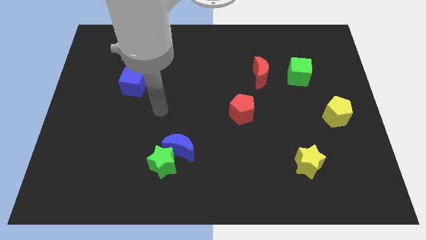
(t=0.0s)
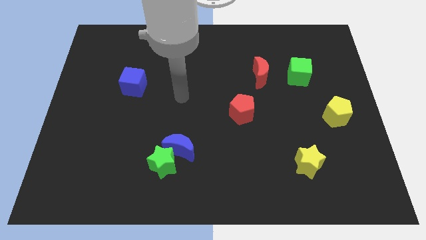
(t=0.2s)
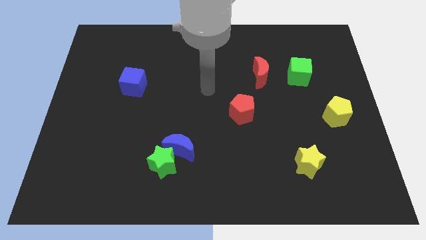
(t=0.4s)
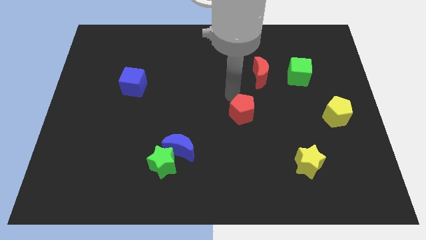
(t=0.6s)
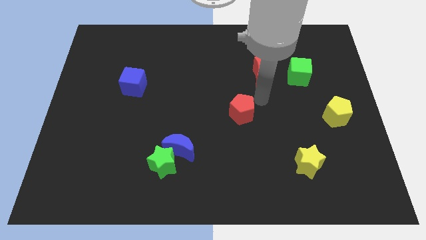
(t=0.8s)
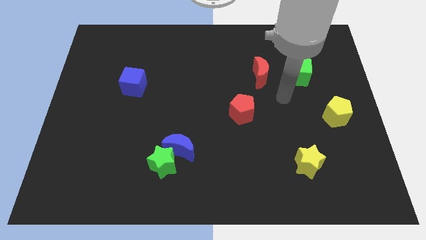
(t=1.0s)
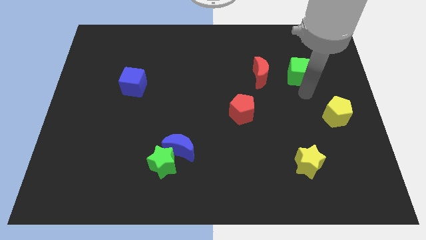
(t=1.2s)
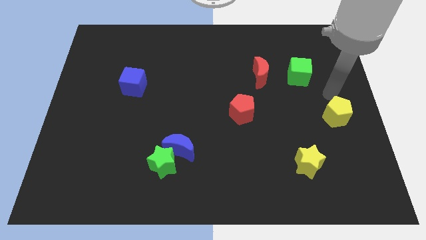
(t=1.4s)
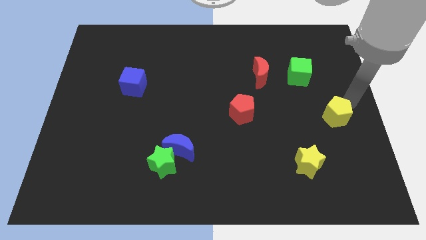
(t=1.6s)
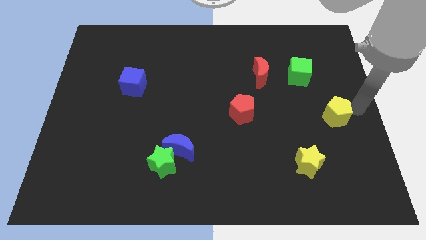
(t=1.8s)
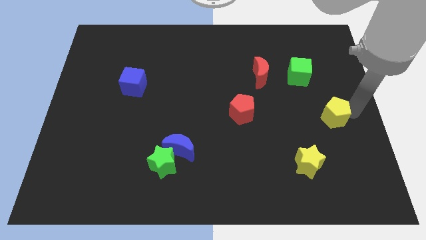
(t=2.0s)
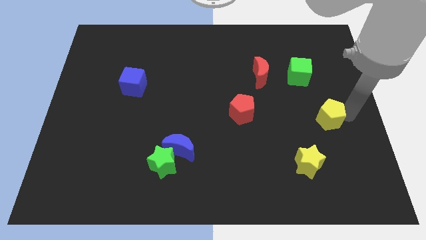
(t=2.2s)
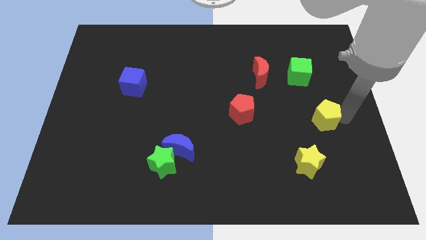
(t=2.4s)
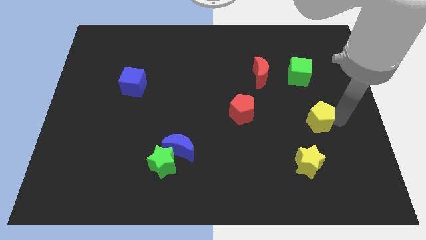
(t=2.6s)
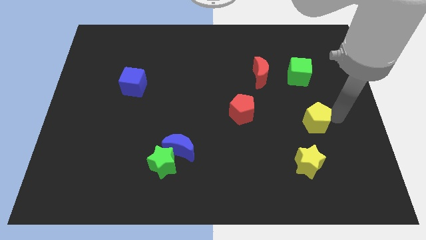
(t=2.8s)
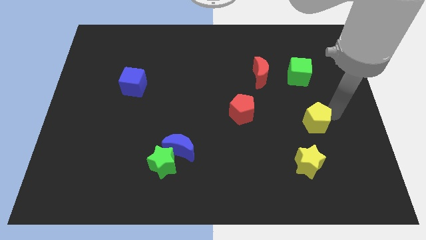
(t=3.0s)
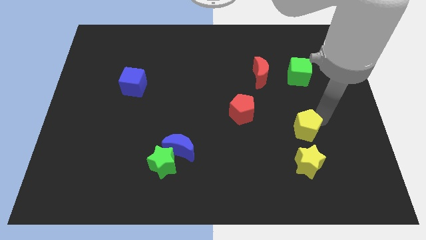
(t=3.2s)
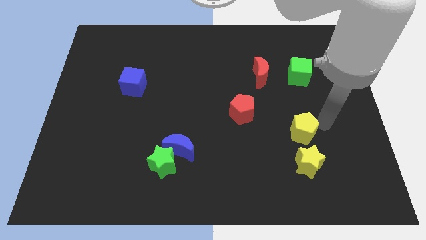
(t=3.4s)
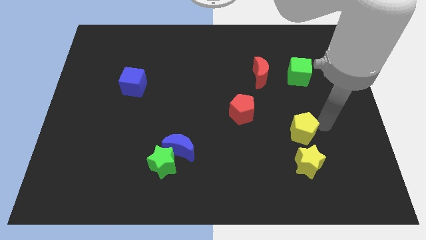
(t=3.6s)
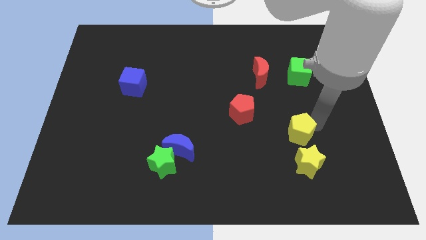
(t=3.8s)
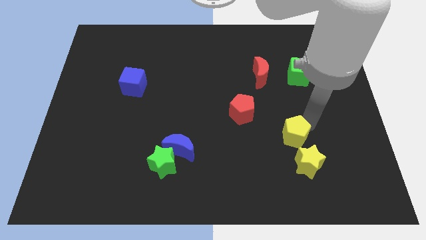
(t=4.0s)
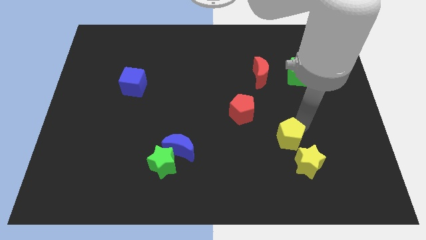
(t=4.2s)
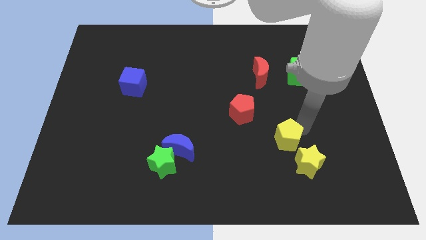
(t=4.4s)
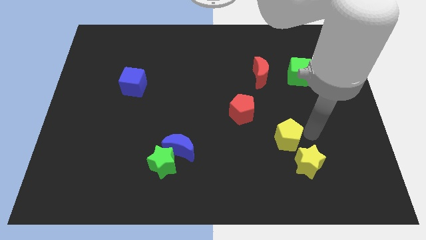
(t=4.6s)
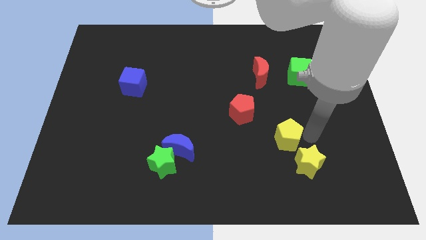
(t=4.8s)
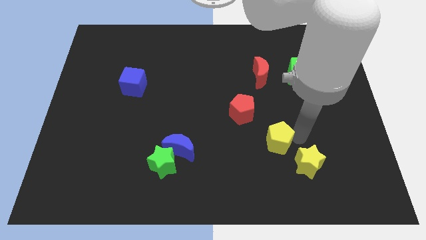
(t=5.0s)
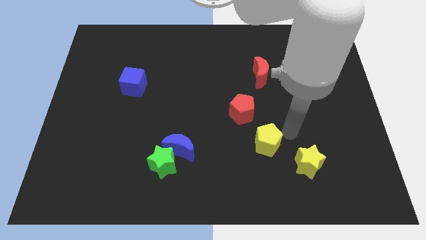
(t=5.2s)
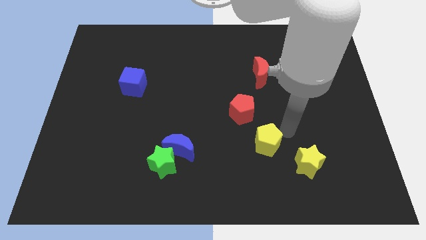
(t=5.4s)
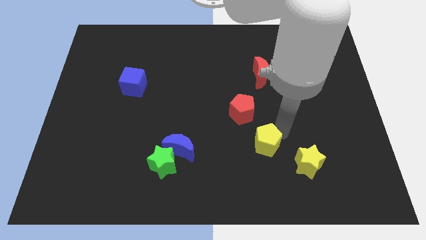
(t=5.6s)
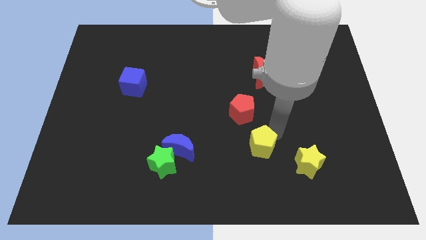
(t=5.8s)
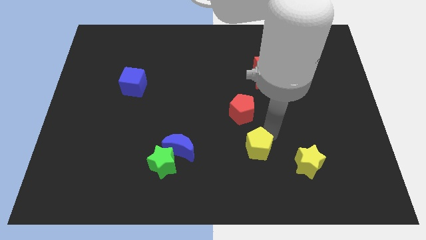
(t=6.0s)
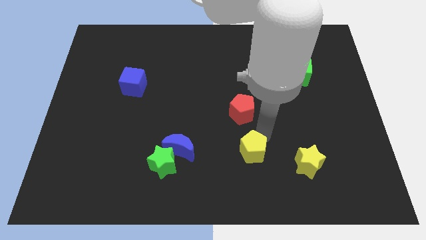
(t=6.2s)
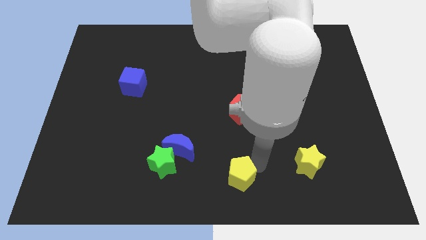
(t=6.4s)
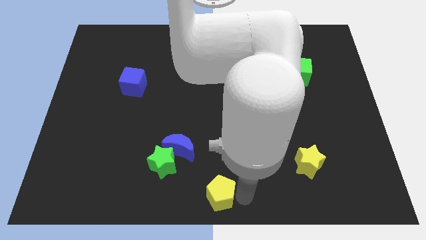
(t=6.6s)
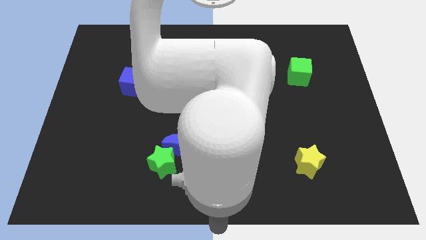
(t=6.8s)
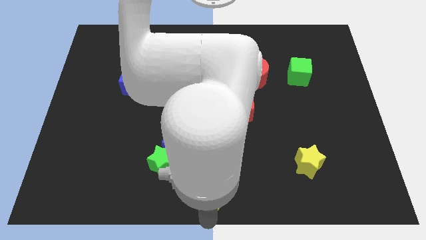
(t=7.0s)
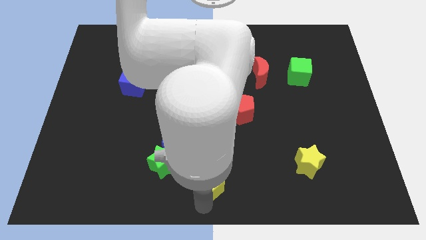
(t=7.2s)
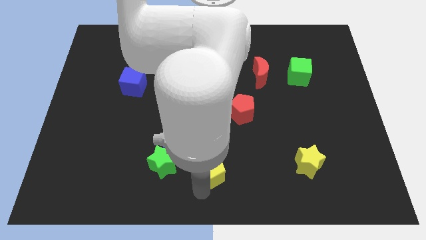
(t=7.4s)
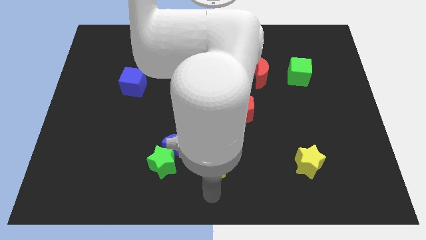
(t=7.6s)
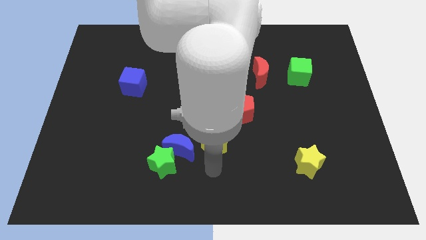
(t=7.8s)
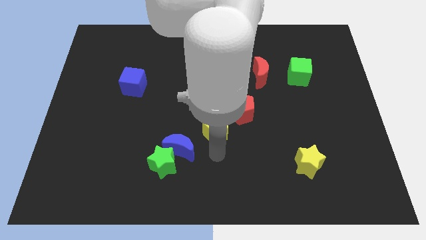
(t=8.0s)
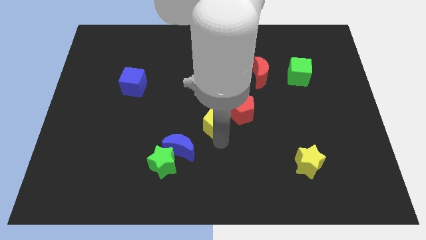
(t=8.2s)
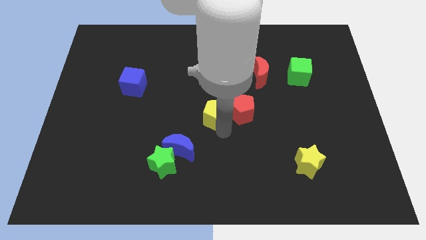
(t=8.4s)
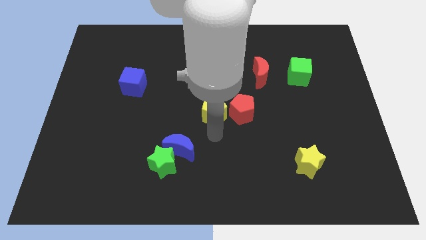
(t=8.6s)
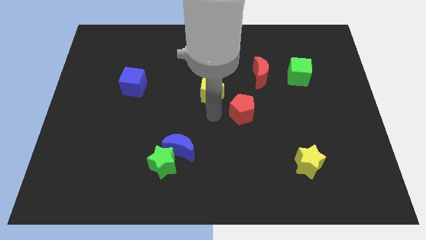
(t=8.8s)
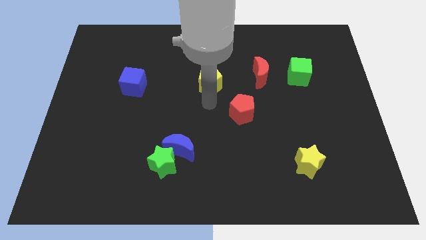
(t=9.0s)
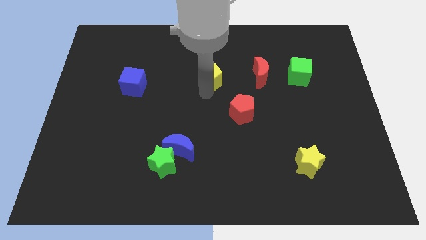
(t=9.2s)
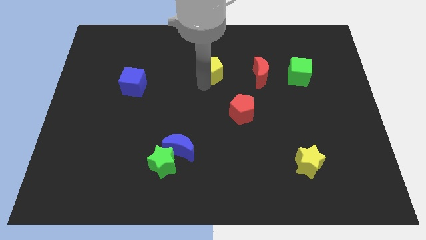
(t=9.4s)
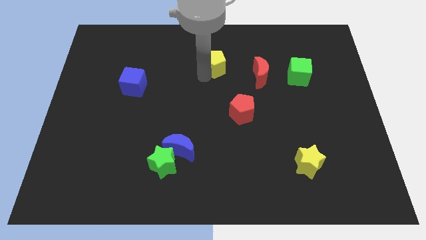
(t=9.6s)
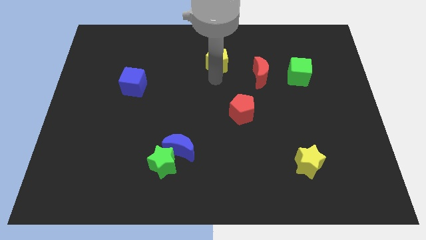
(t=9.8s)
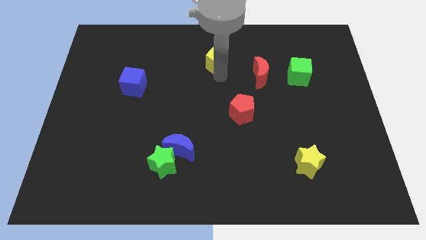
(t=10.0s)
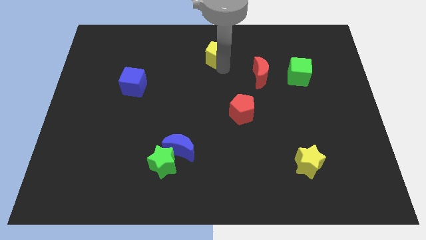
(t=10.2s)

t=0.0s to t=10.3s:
push the yellow pentagon to the top side
